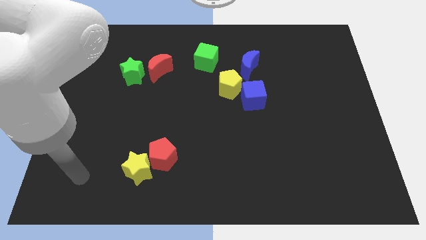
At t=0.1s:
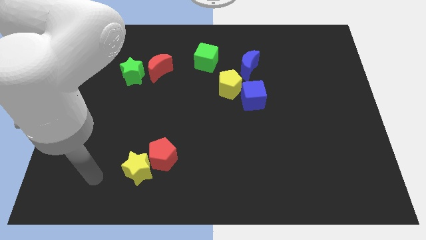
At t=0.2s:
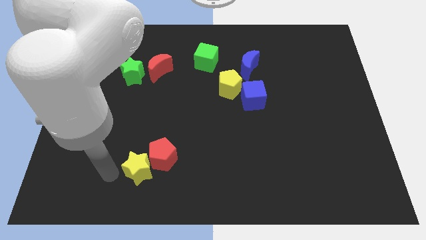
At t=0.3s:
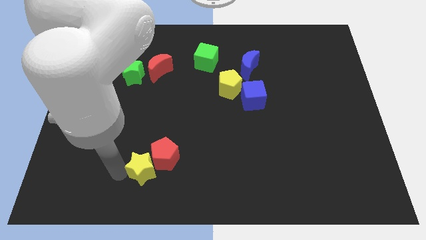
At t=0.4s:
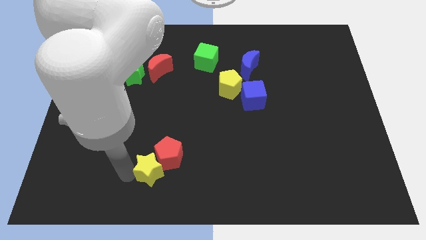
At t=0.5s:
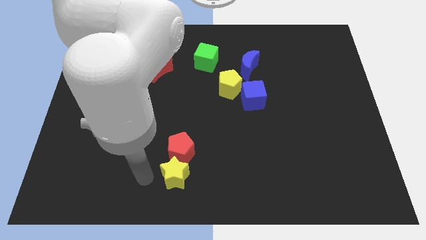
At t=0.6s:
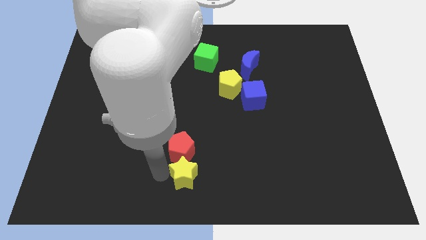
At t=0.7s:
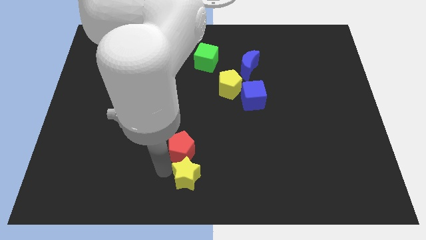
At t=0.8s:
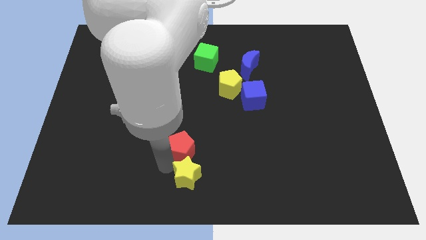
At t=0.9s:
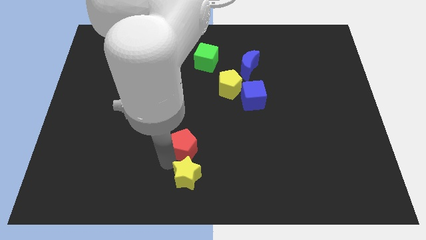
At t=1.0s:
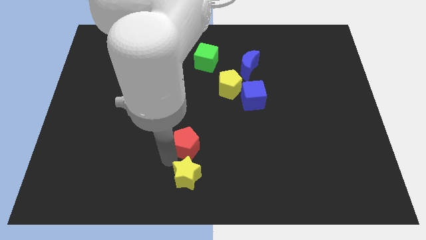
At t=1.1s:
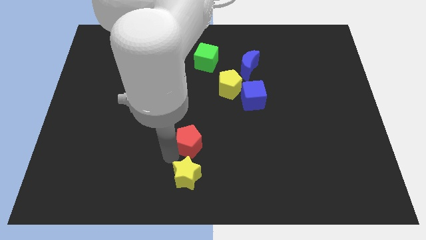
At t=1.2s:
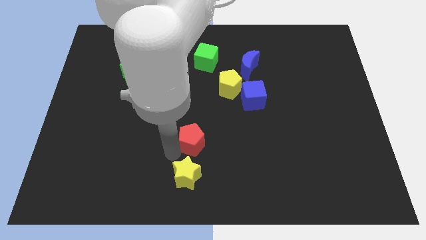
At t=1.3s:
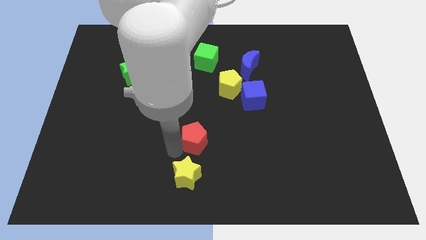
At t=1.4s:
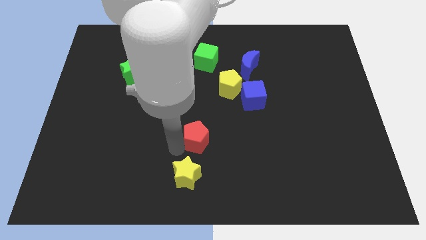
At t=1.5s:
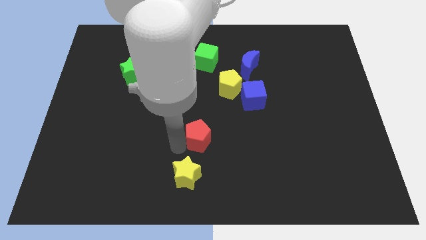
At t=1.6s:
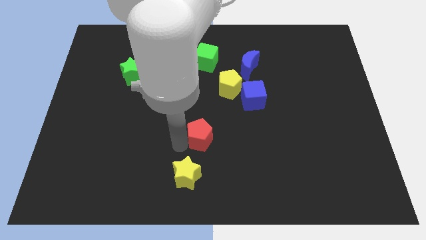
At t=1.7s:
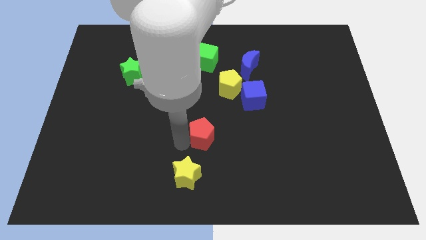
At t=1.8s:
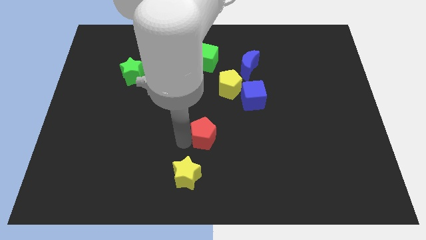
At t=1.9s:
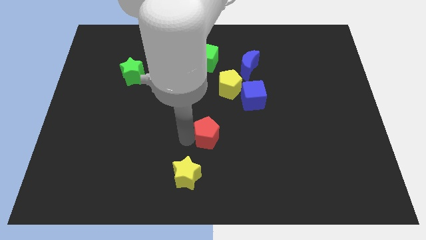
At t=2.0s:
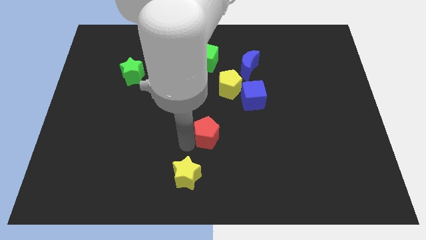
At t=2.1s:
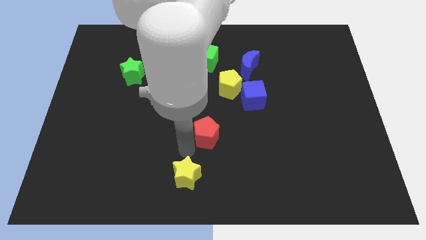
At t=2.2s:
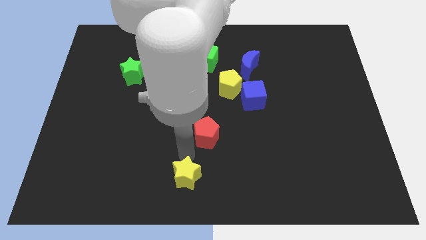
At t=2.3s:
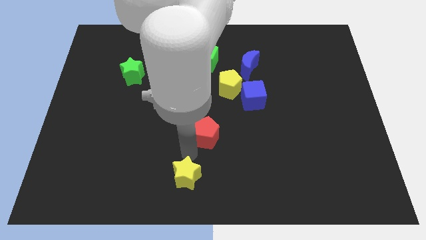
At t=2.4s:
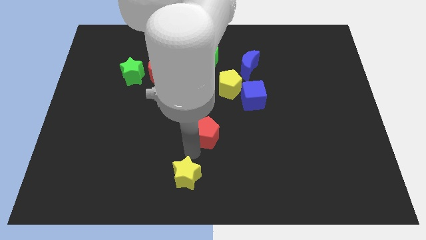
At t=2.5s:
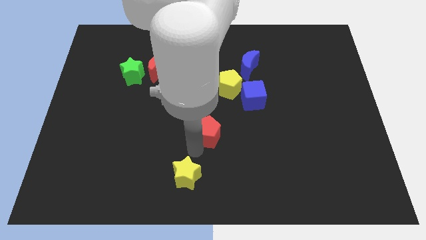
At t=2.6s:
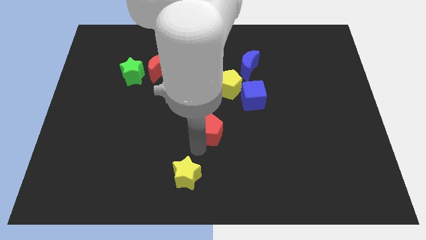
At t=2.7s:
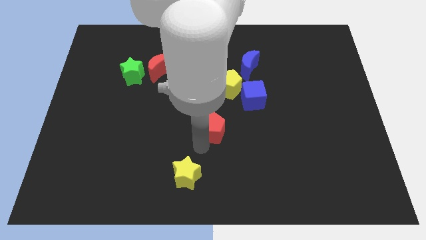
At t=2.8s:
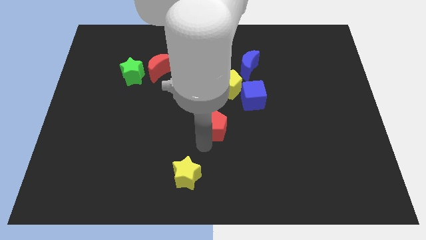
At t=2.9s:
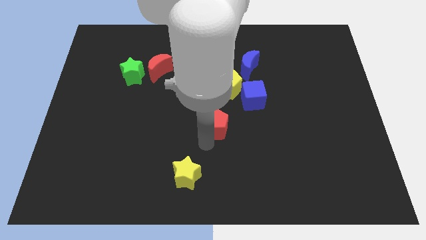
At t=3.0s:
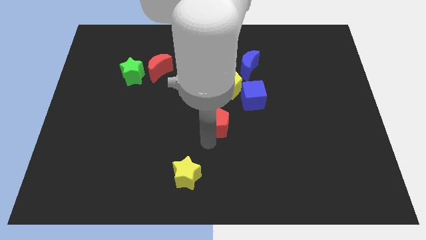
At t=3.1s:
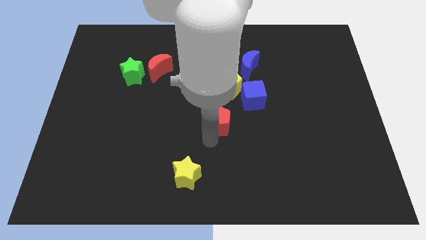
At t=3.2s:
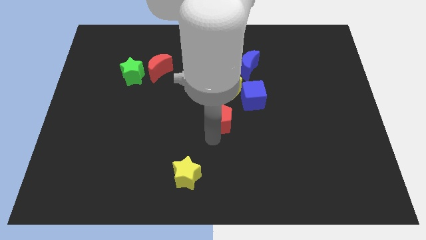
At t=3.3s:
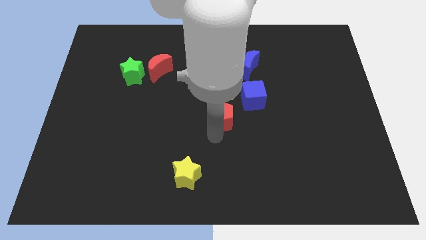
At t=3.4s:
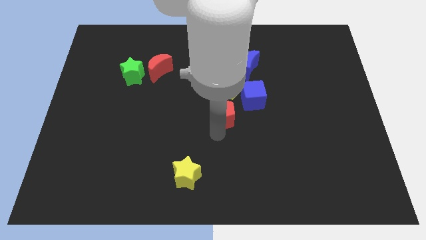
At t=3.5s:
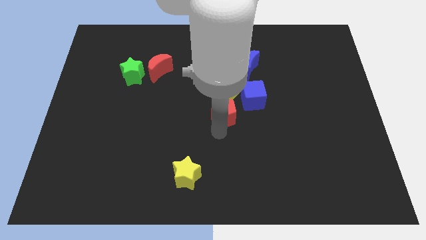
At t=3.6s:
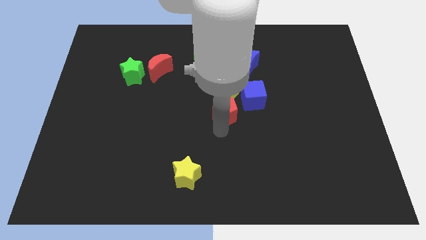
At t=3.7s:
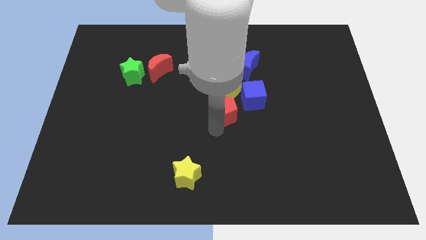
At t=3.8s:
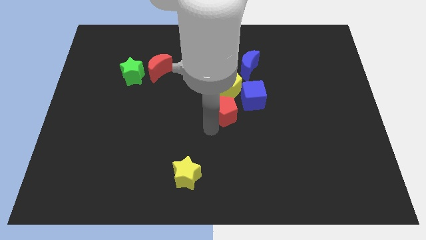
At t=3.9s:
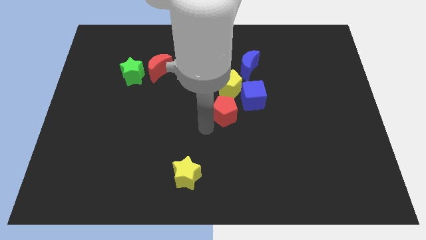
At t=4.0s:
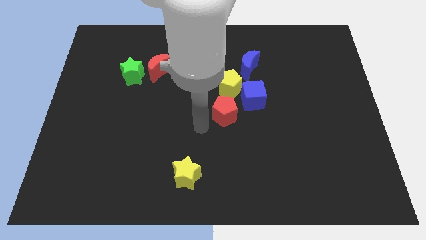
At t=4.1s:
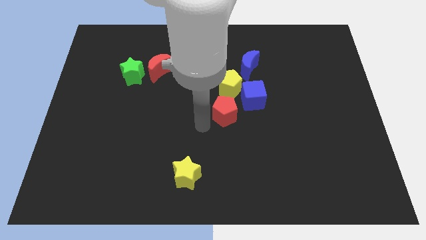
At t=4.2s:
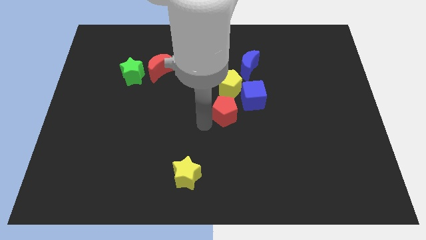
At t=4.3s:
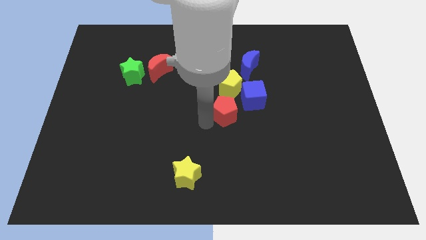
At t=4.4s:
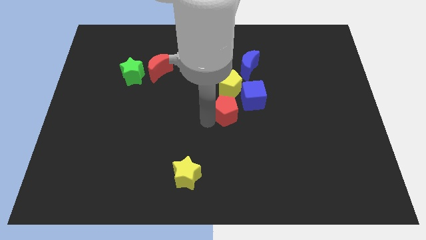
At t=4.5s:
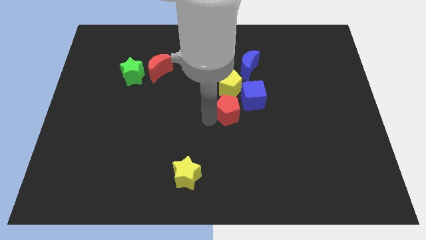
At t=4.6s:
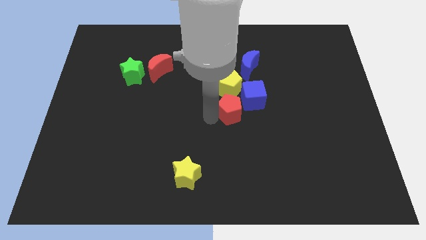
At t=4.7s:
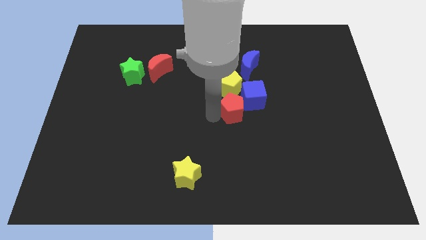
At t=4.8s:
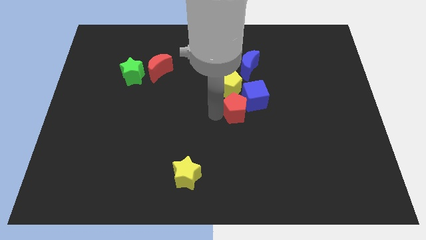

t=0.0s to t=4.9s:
push the red pentagon next to the blue cube

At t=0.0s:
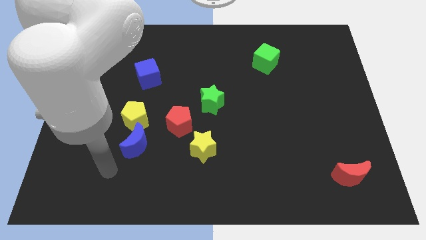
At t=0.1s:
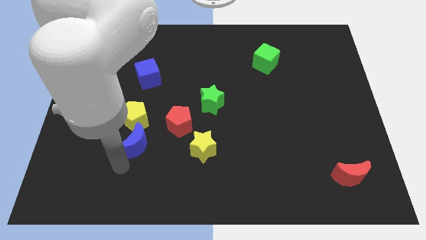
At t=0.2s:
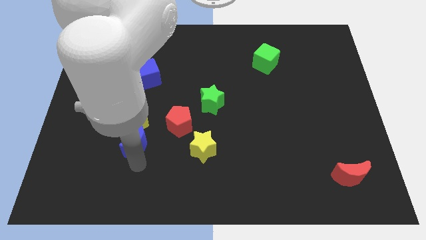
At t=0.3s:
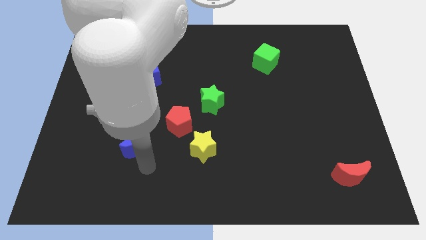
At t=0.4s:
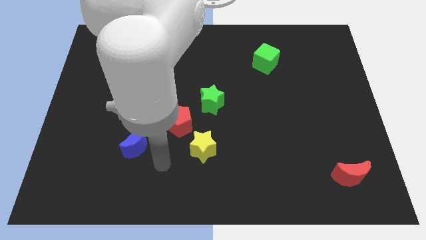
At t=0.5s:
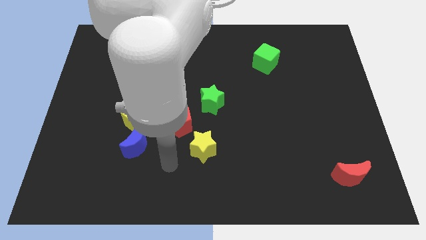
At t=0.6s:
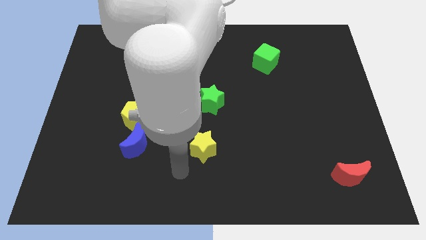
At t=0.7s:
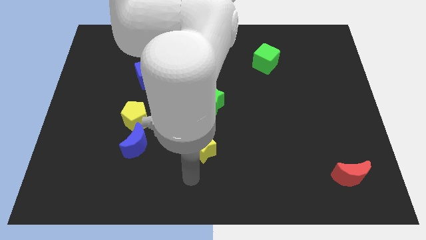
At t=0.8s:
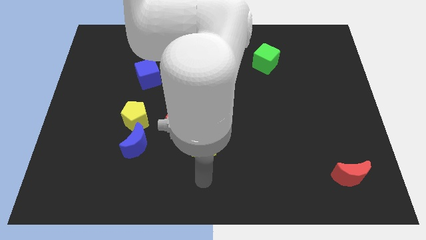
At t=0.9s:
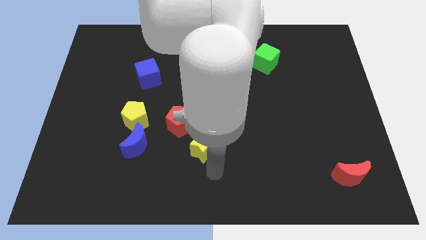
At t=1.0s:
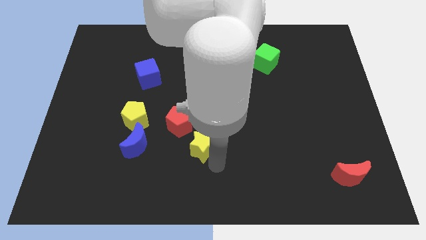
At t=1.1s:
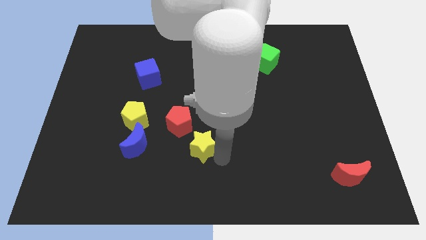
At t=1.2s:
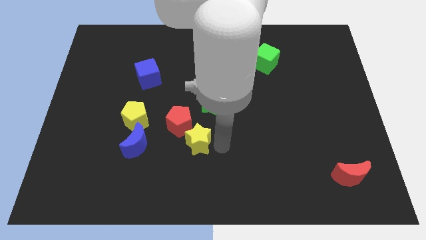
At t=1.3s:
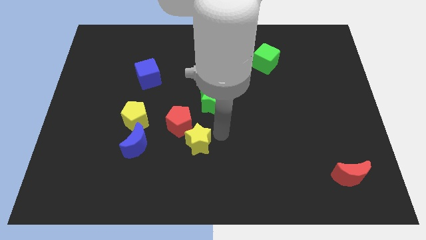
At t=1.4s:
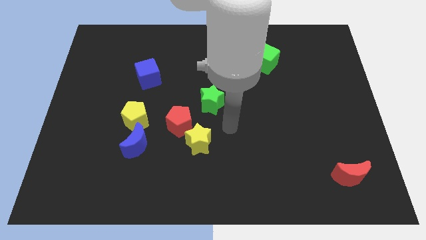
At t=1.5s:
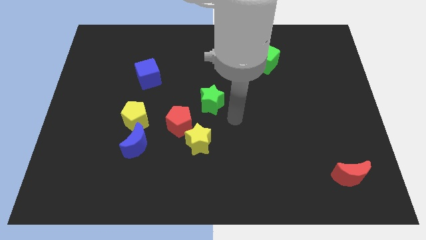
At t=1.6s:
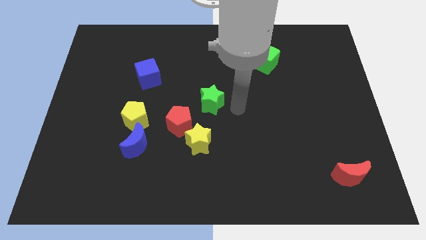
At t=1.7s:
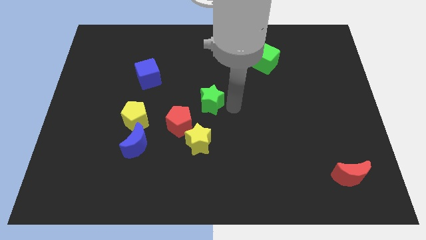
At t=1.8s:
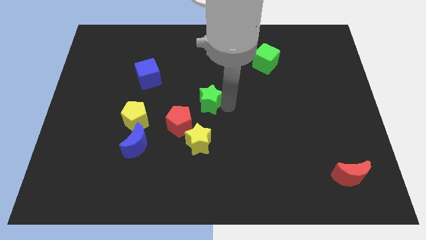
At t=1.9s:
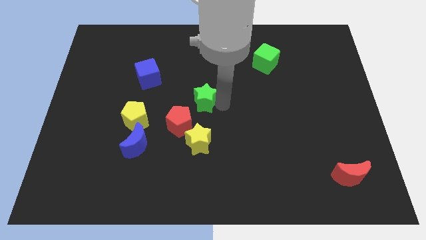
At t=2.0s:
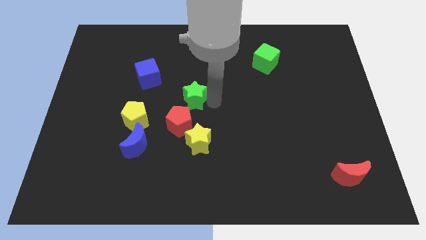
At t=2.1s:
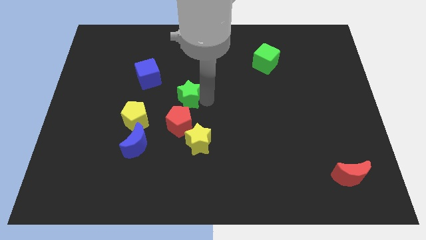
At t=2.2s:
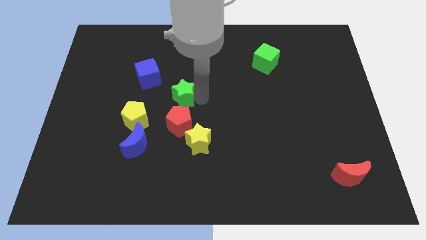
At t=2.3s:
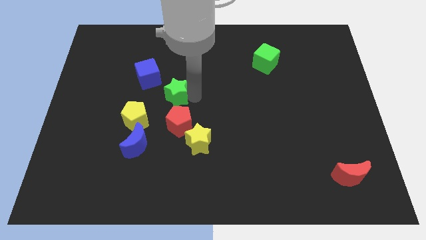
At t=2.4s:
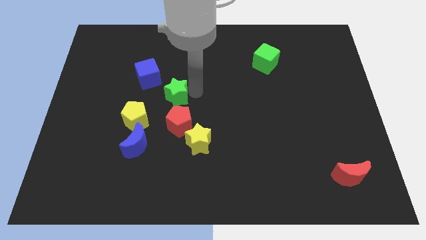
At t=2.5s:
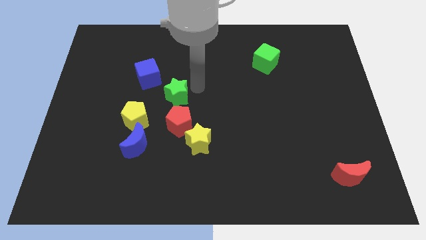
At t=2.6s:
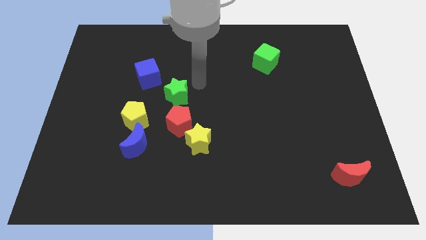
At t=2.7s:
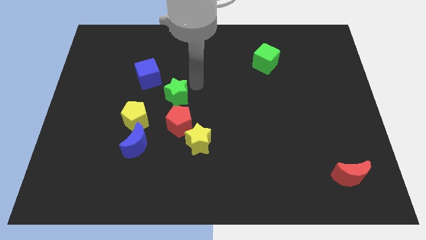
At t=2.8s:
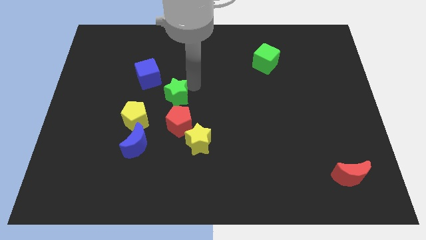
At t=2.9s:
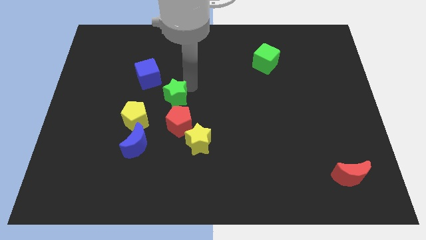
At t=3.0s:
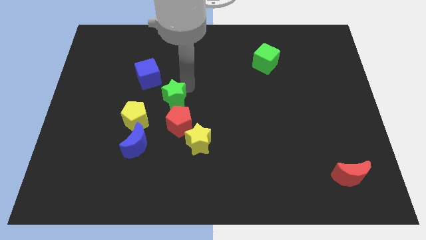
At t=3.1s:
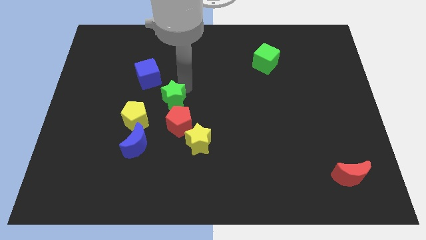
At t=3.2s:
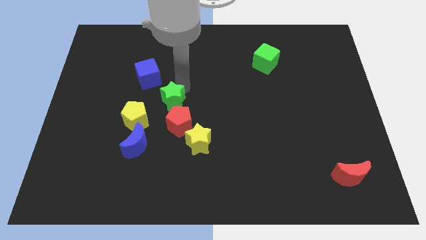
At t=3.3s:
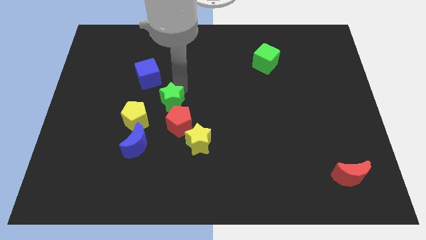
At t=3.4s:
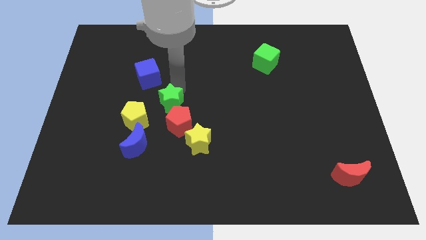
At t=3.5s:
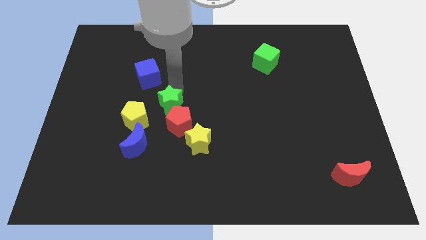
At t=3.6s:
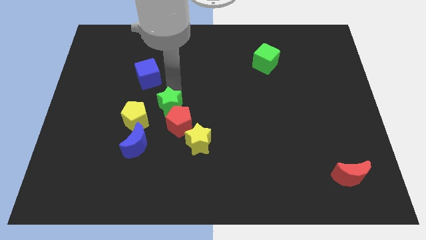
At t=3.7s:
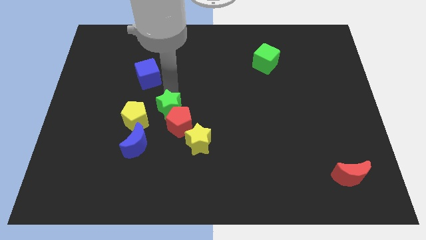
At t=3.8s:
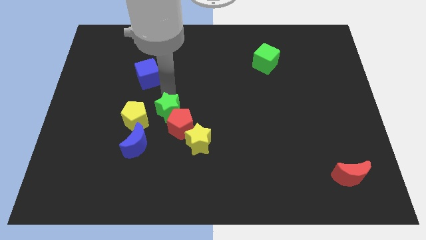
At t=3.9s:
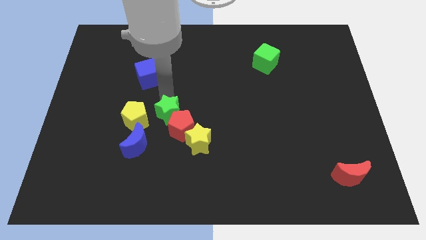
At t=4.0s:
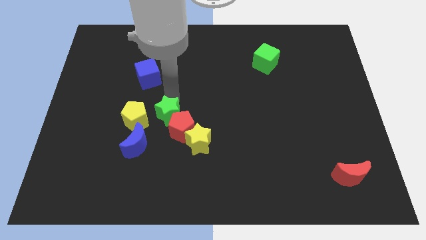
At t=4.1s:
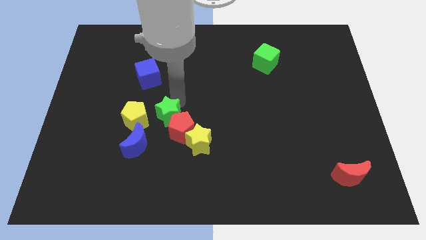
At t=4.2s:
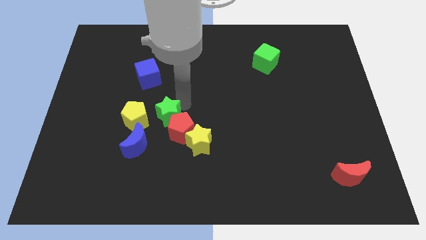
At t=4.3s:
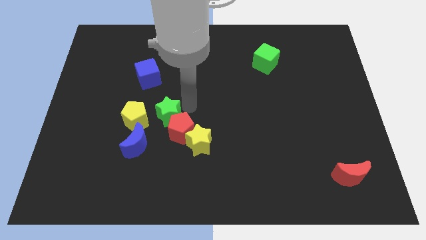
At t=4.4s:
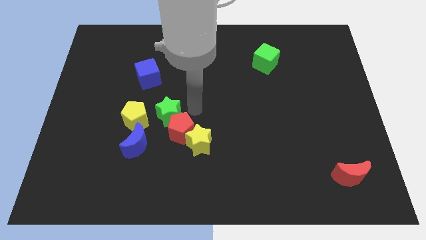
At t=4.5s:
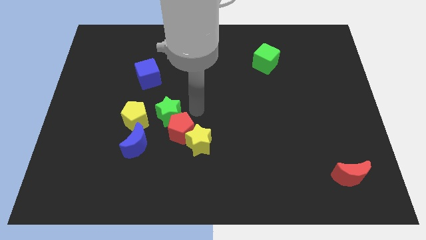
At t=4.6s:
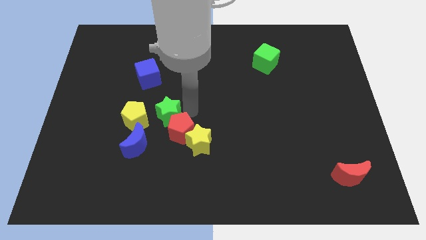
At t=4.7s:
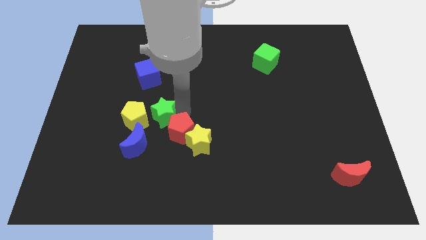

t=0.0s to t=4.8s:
put the green star towards the yellow pentagon
